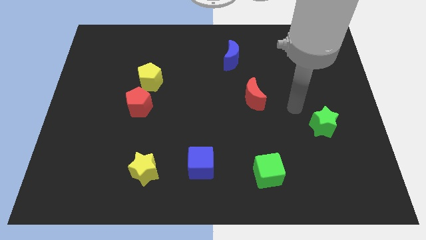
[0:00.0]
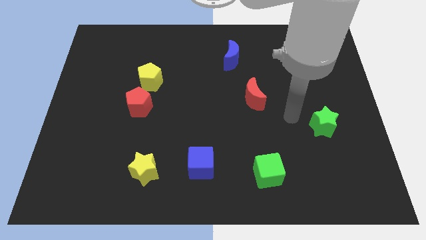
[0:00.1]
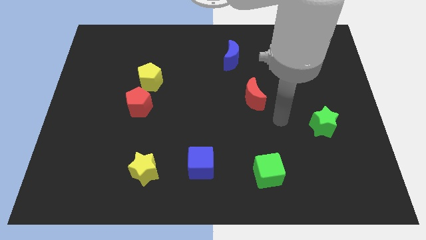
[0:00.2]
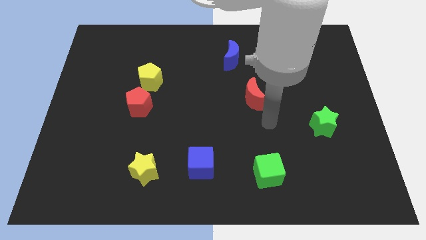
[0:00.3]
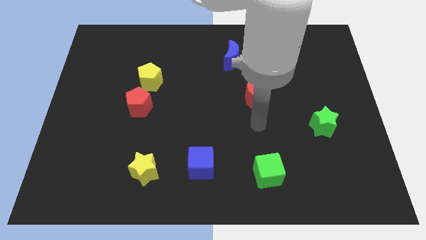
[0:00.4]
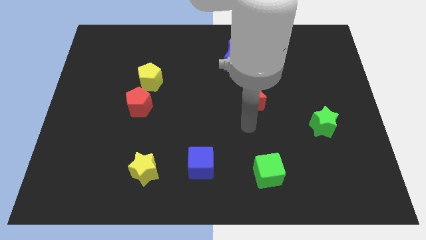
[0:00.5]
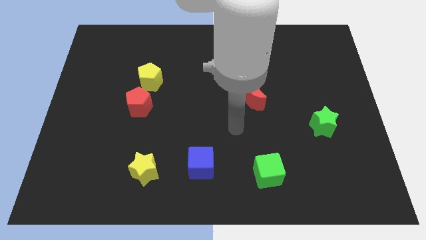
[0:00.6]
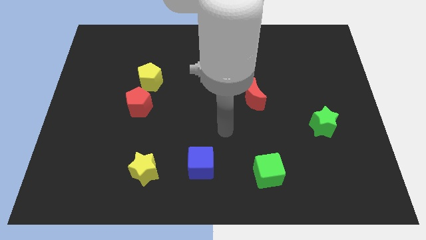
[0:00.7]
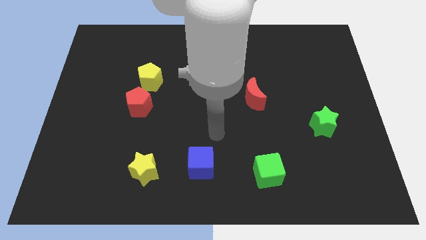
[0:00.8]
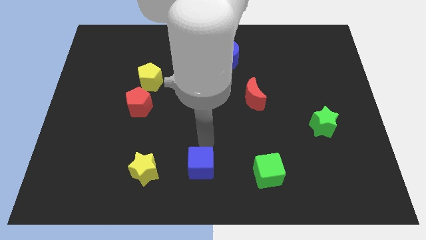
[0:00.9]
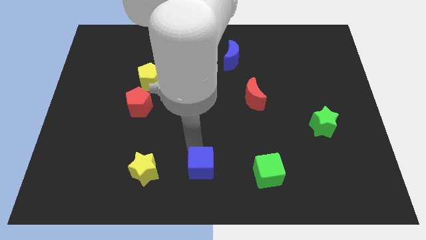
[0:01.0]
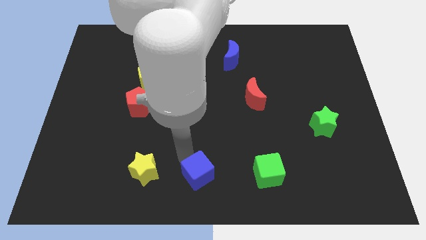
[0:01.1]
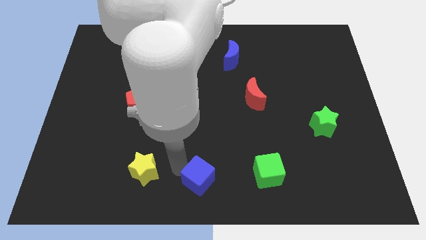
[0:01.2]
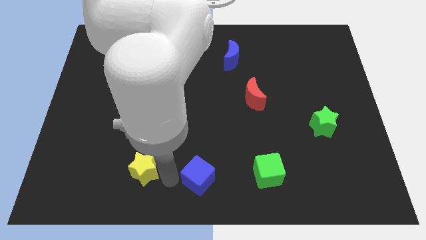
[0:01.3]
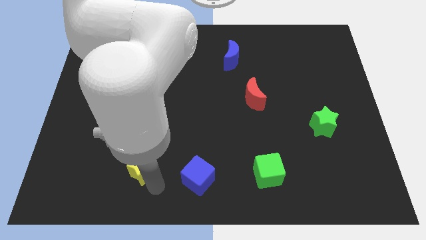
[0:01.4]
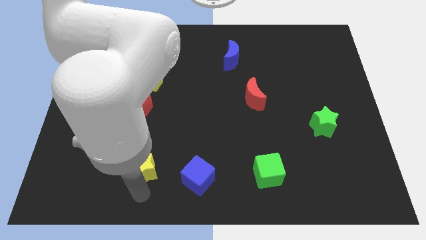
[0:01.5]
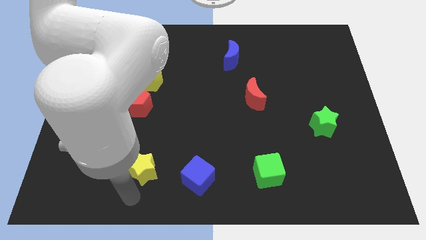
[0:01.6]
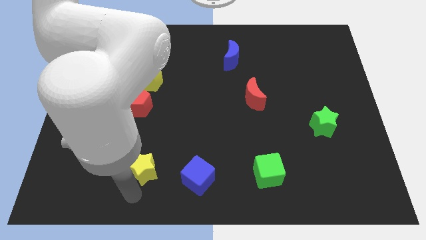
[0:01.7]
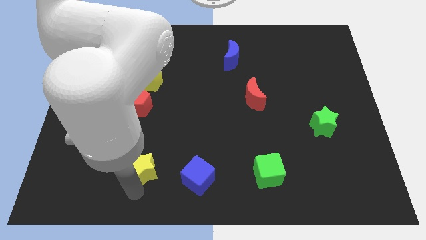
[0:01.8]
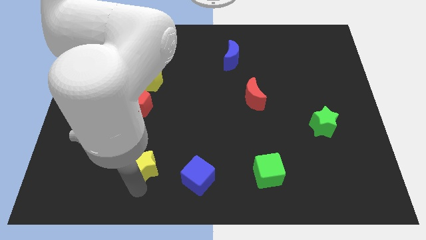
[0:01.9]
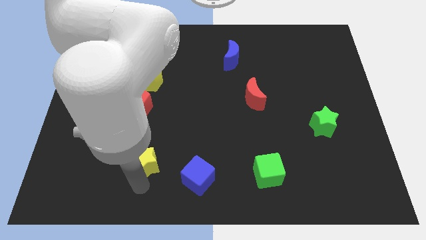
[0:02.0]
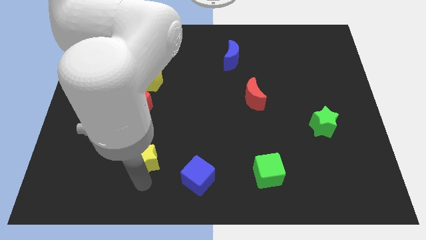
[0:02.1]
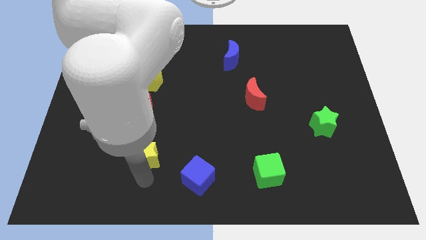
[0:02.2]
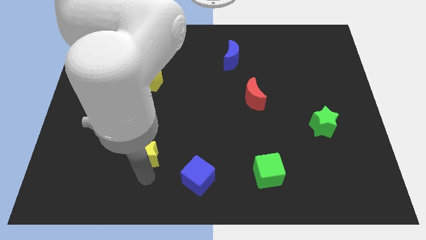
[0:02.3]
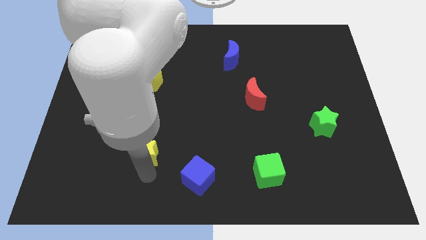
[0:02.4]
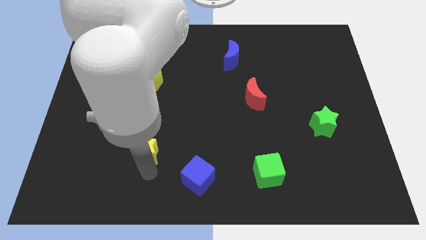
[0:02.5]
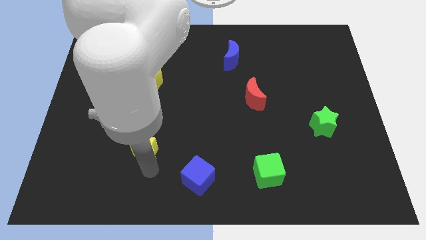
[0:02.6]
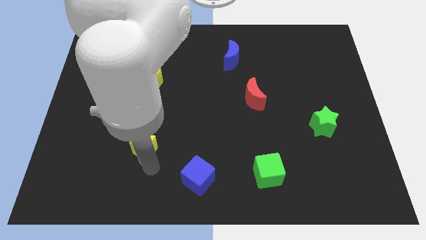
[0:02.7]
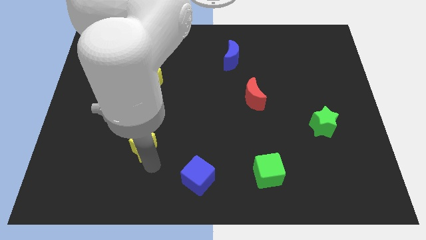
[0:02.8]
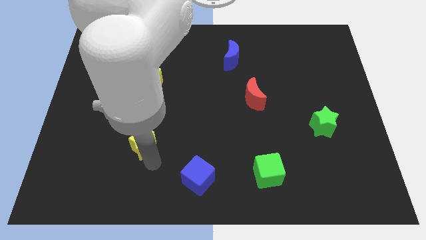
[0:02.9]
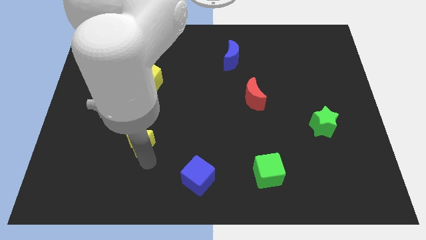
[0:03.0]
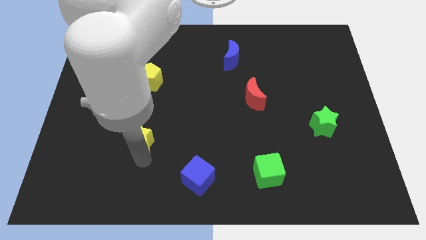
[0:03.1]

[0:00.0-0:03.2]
slide the yellow star a little bit up

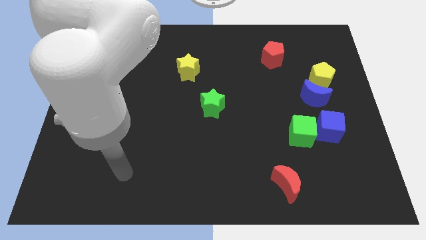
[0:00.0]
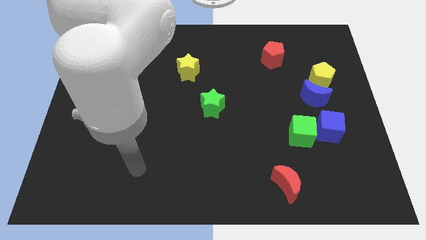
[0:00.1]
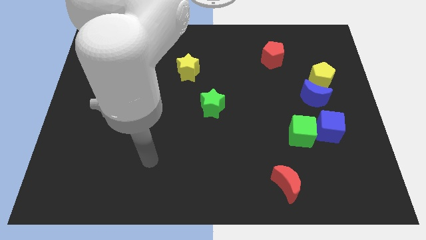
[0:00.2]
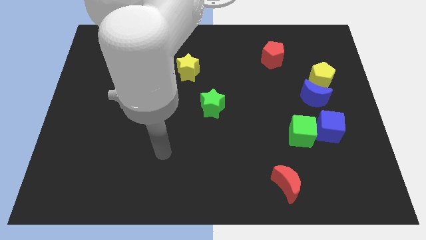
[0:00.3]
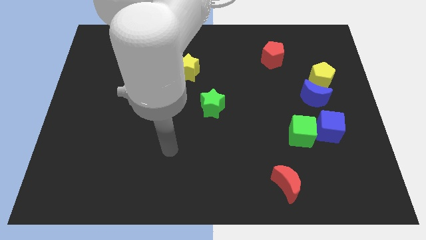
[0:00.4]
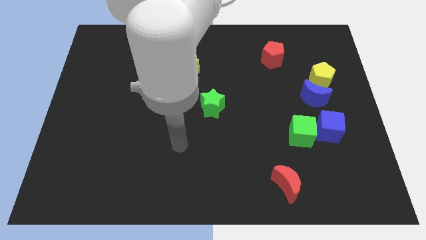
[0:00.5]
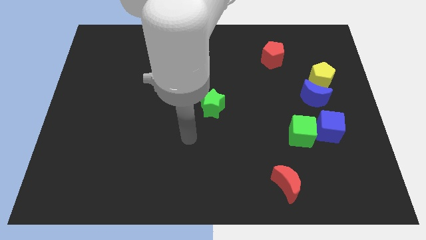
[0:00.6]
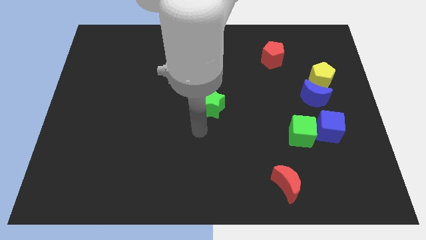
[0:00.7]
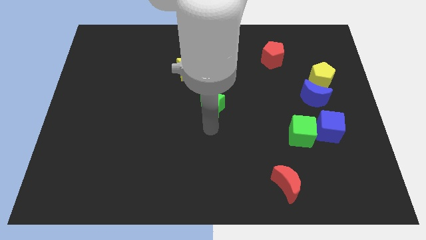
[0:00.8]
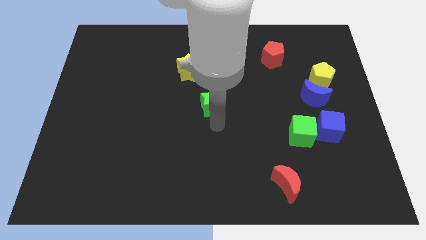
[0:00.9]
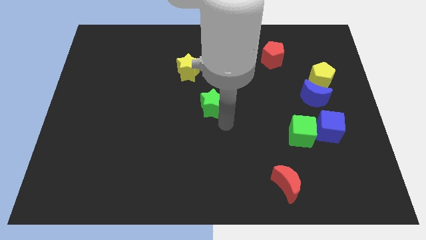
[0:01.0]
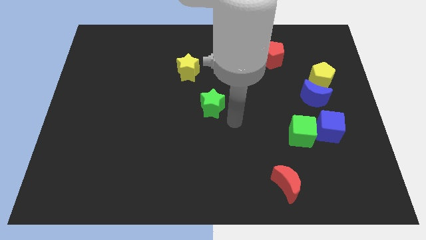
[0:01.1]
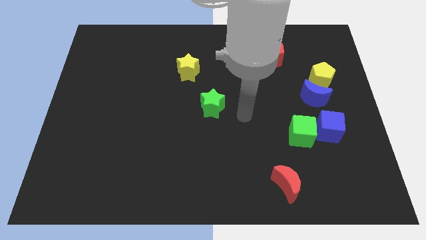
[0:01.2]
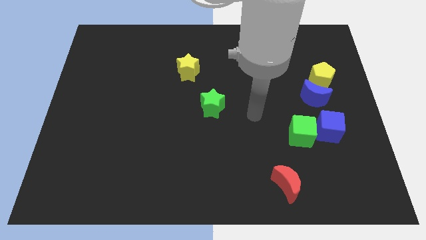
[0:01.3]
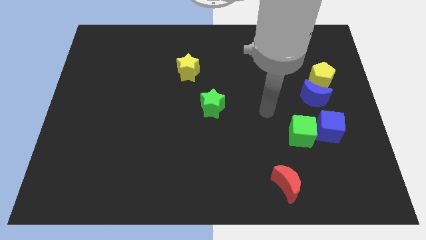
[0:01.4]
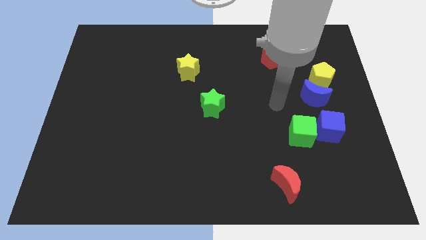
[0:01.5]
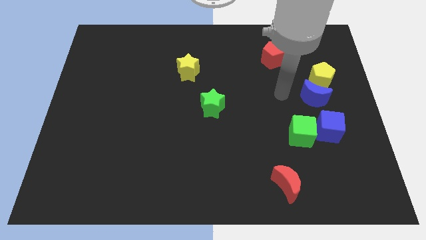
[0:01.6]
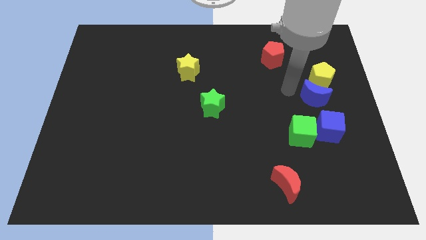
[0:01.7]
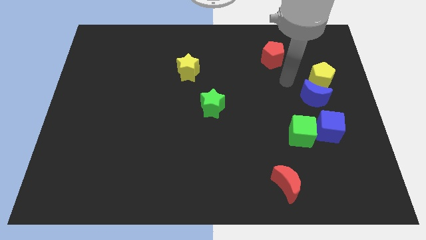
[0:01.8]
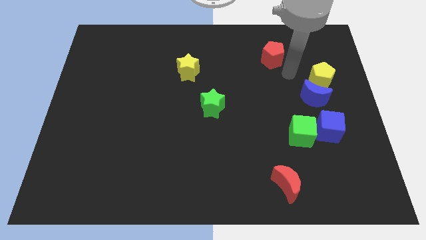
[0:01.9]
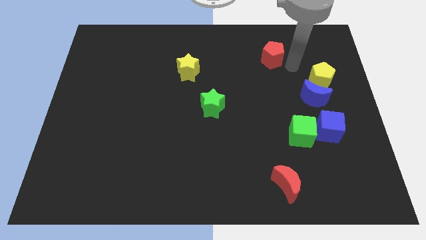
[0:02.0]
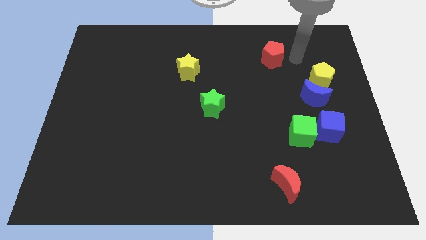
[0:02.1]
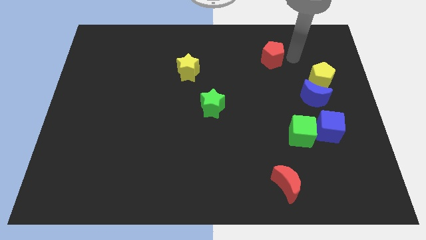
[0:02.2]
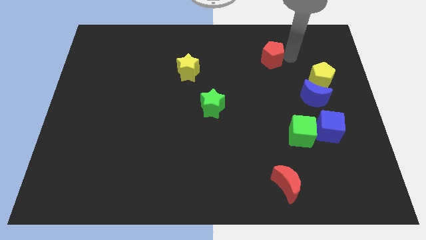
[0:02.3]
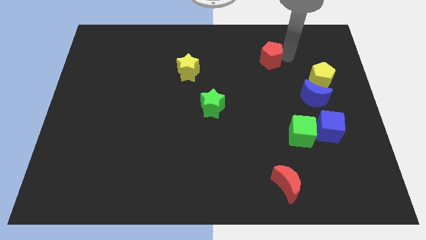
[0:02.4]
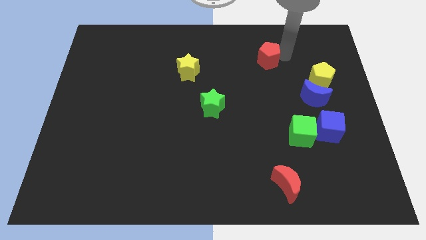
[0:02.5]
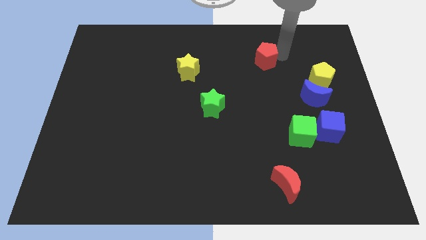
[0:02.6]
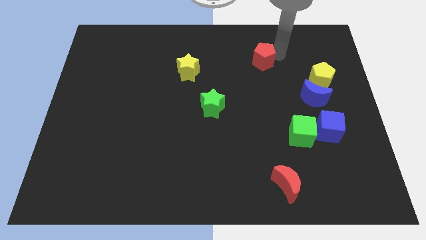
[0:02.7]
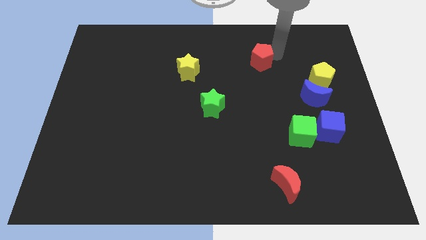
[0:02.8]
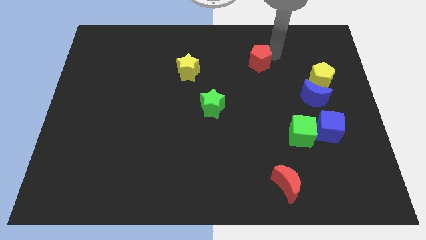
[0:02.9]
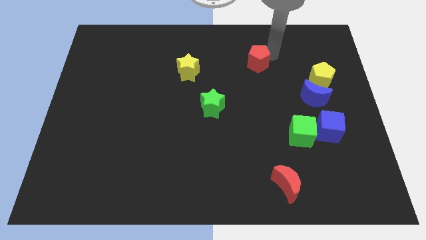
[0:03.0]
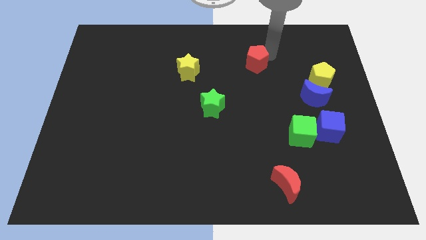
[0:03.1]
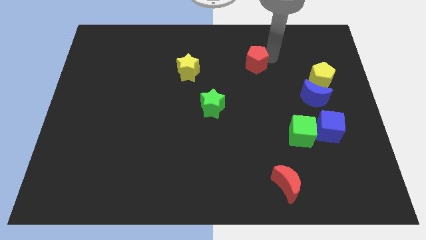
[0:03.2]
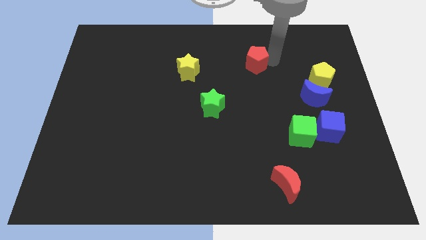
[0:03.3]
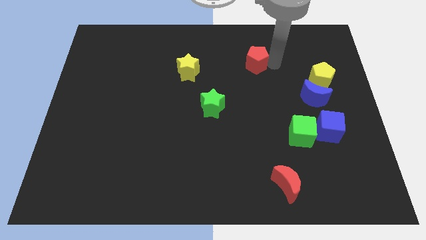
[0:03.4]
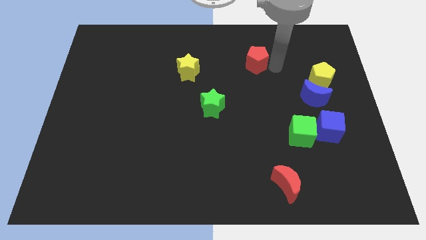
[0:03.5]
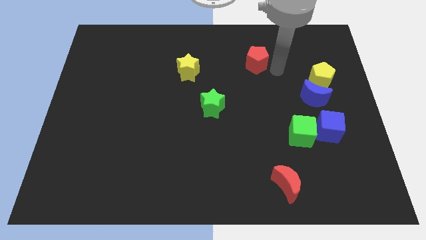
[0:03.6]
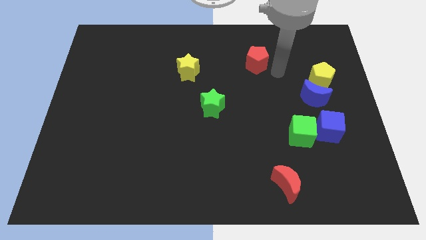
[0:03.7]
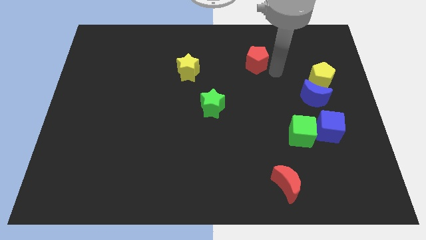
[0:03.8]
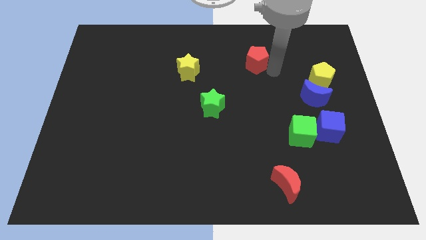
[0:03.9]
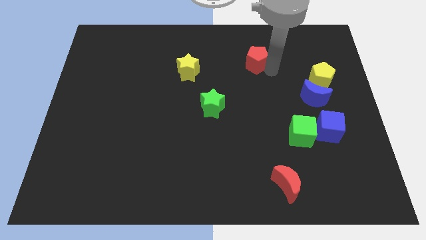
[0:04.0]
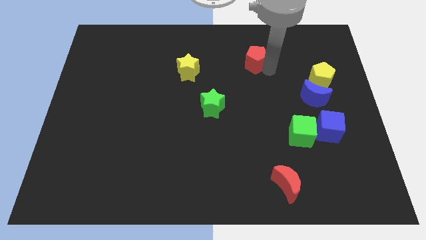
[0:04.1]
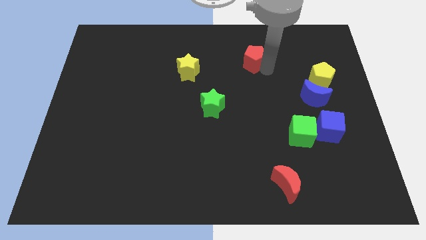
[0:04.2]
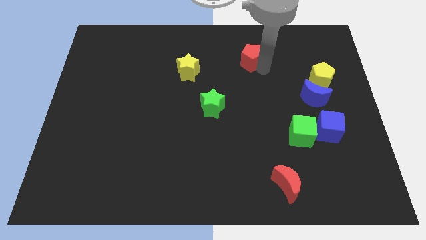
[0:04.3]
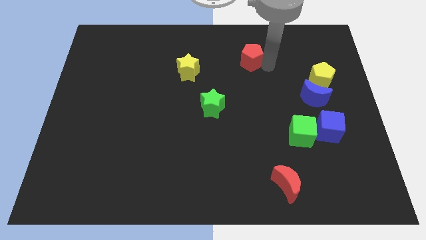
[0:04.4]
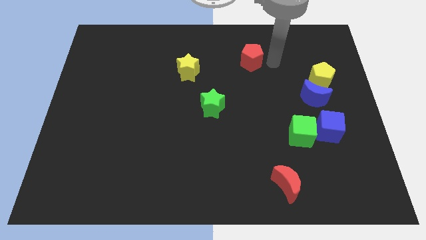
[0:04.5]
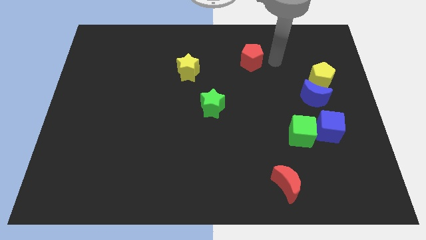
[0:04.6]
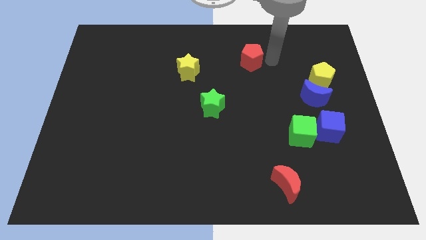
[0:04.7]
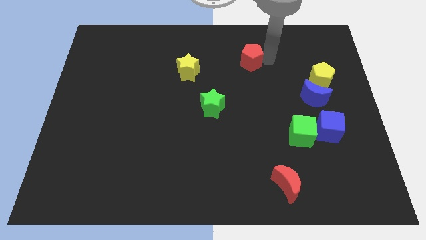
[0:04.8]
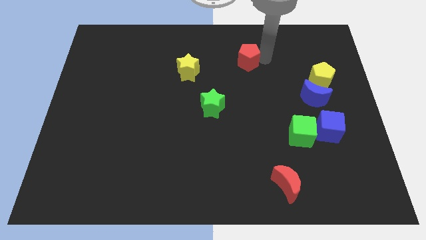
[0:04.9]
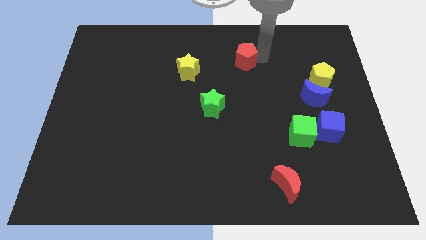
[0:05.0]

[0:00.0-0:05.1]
push the red pentagon slightly left
